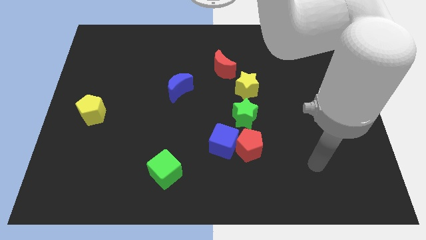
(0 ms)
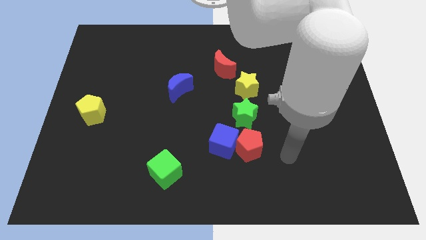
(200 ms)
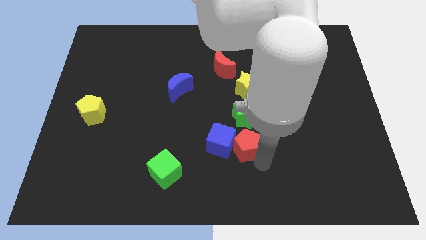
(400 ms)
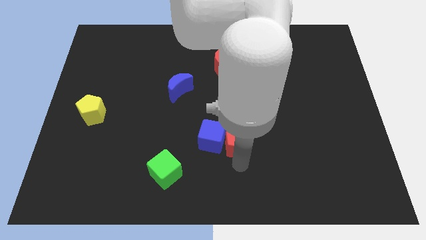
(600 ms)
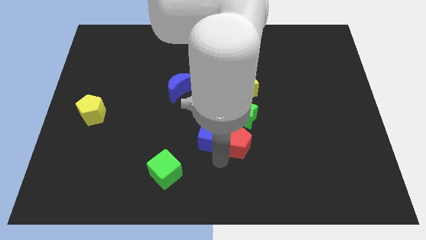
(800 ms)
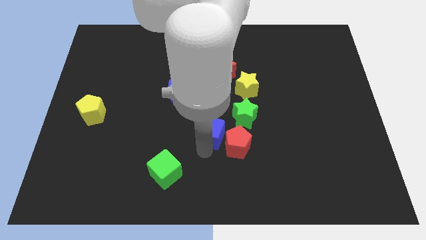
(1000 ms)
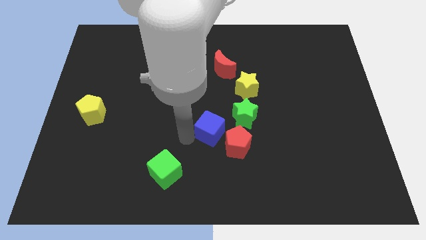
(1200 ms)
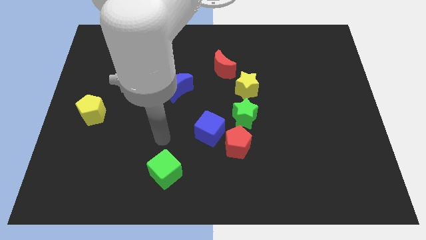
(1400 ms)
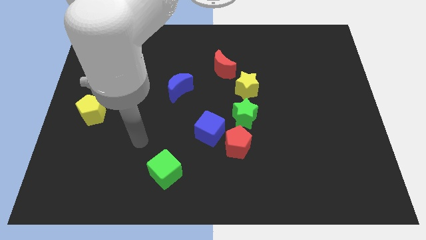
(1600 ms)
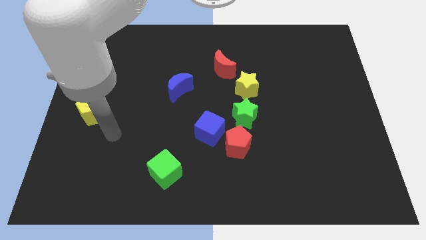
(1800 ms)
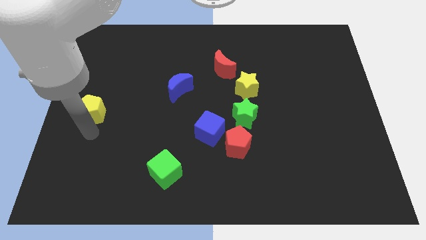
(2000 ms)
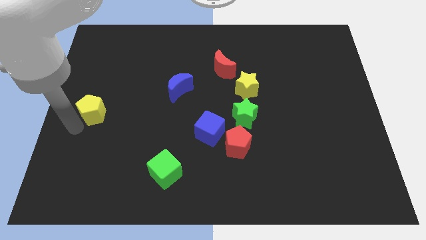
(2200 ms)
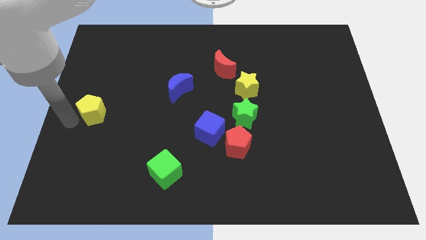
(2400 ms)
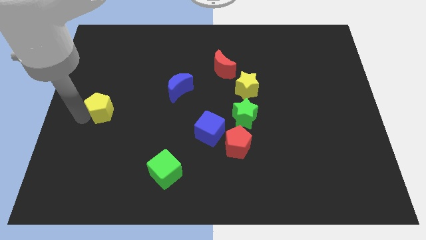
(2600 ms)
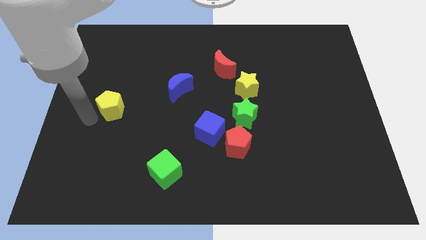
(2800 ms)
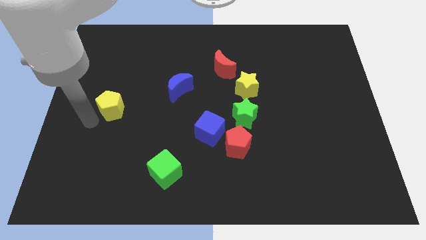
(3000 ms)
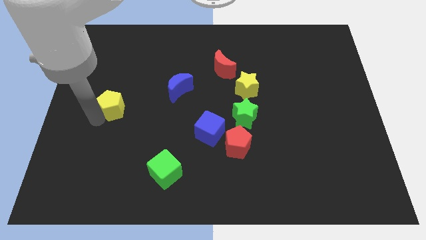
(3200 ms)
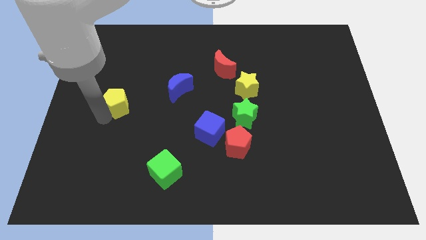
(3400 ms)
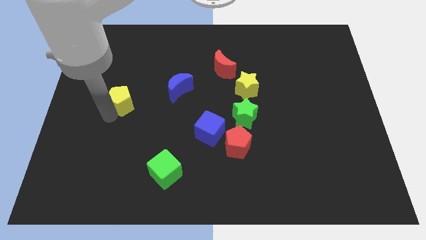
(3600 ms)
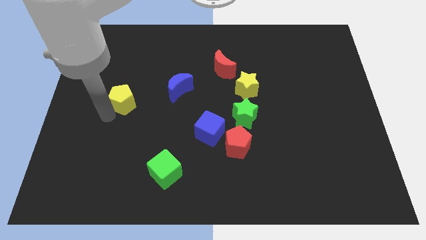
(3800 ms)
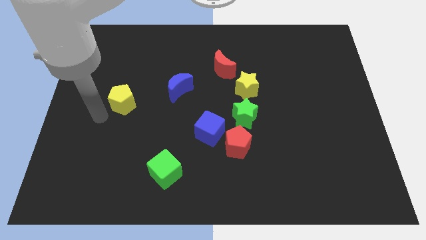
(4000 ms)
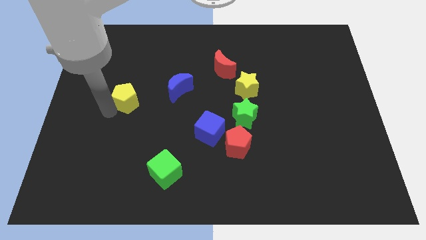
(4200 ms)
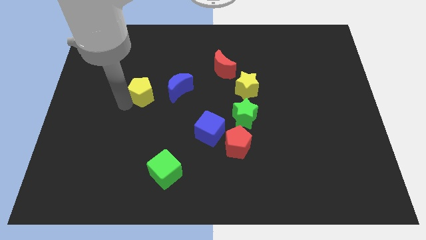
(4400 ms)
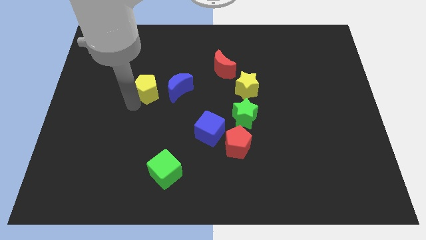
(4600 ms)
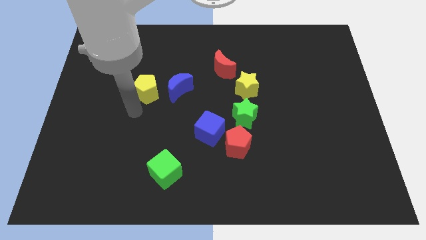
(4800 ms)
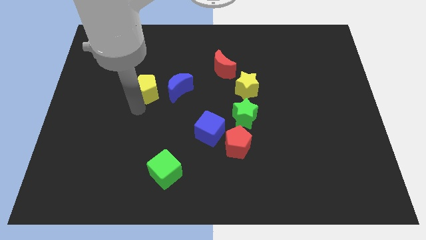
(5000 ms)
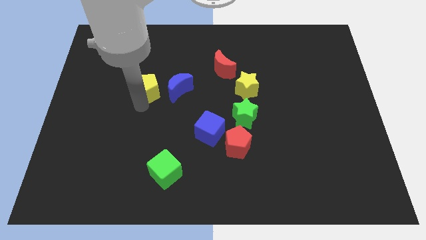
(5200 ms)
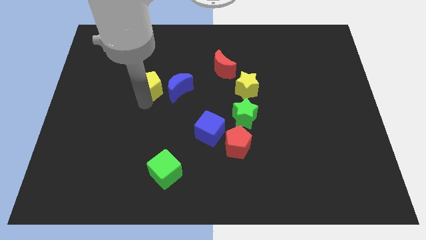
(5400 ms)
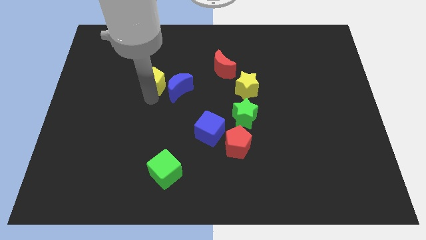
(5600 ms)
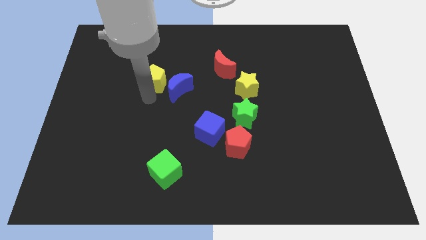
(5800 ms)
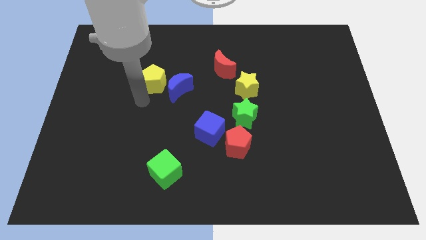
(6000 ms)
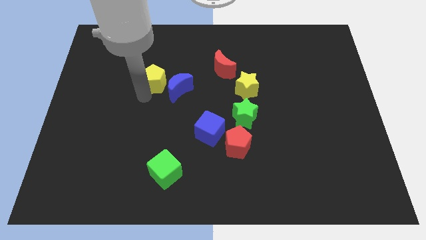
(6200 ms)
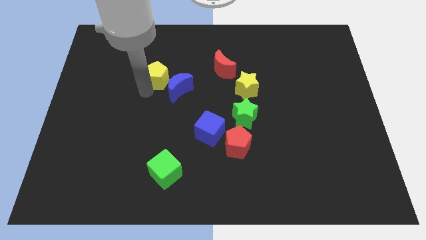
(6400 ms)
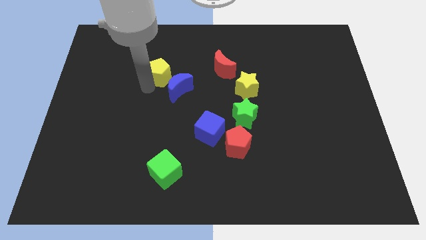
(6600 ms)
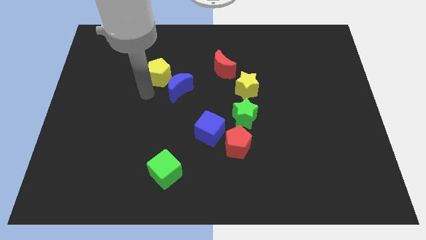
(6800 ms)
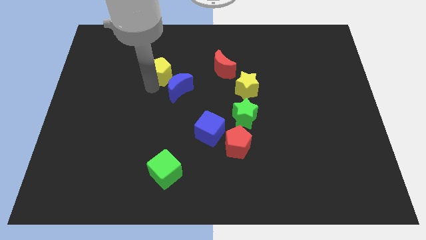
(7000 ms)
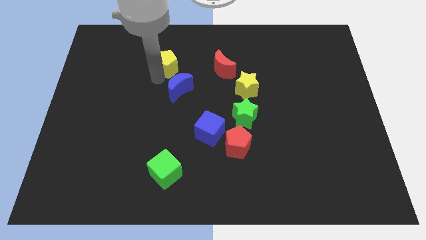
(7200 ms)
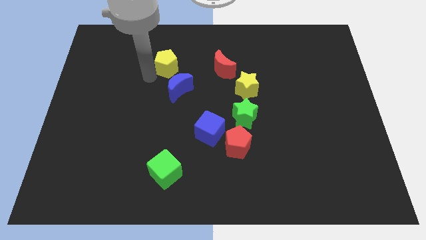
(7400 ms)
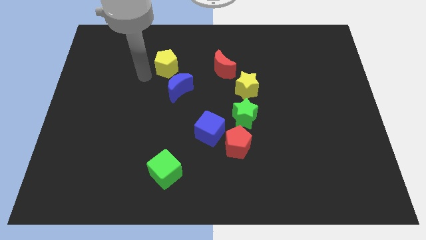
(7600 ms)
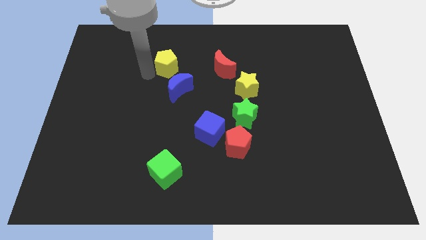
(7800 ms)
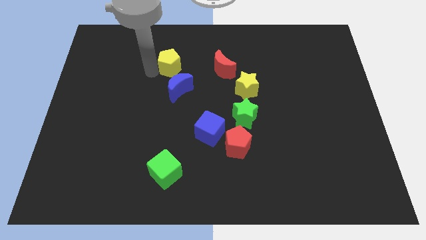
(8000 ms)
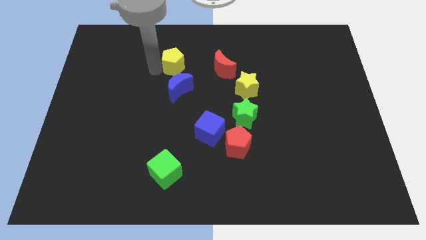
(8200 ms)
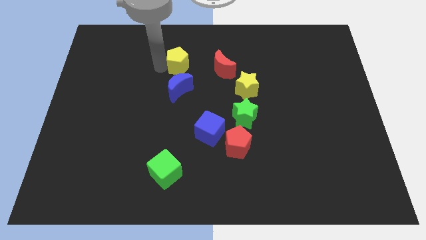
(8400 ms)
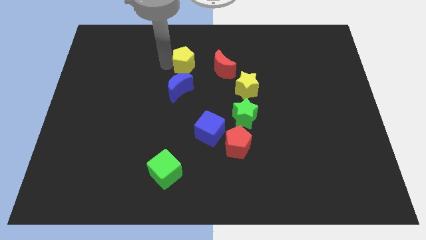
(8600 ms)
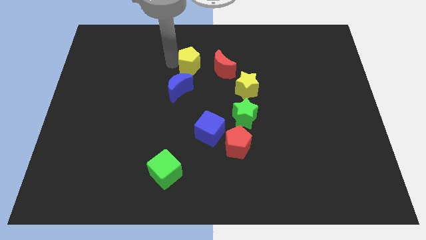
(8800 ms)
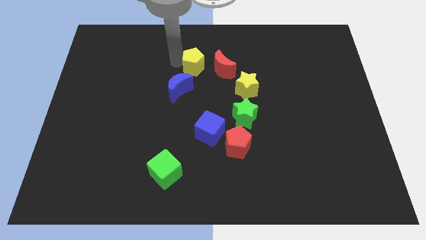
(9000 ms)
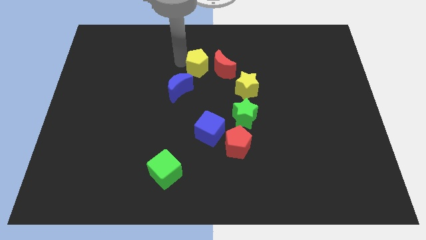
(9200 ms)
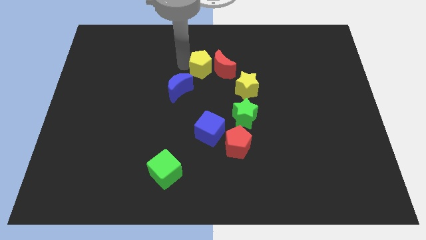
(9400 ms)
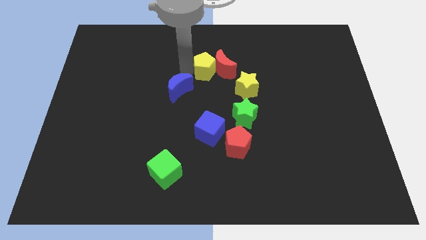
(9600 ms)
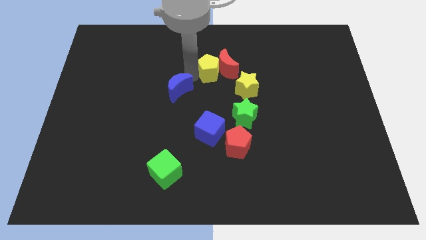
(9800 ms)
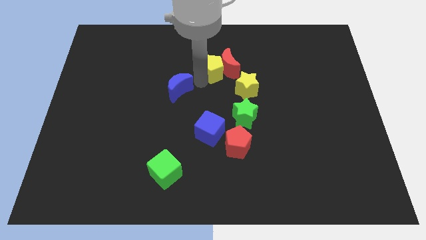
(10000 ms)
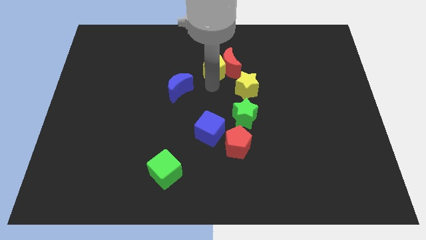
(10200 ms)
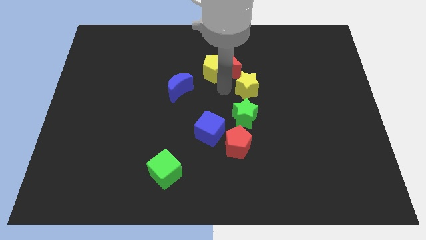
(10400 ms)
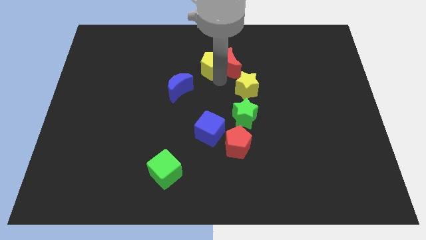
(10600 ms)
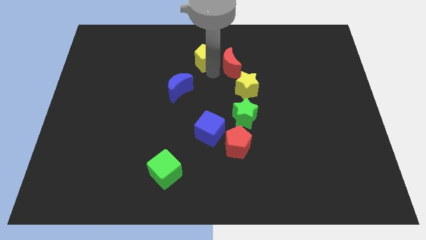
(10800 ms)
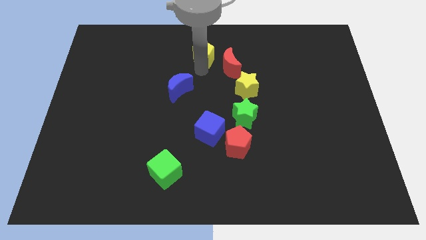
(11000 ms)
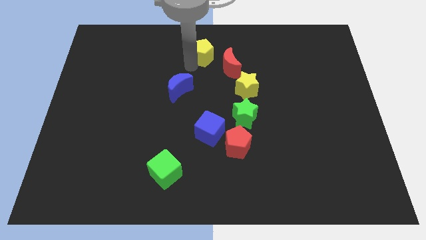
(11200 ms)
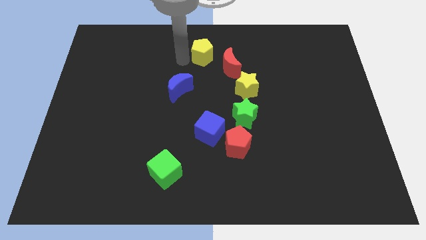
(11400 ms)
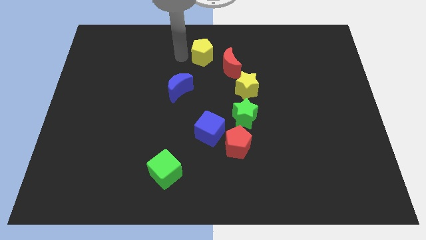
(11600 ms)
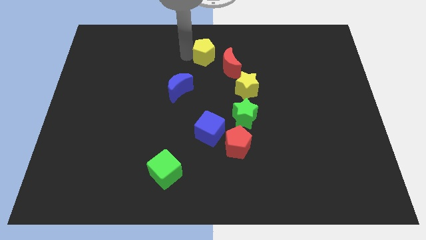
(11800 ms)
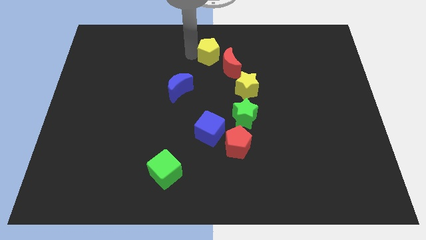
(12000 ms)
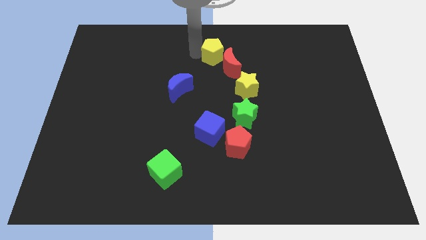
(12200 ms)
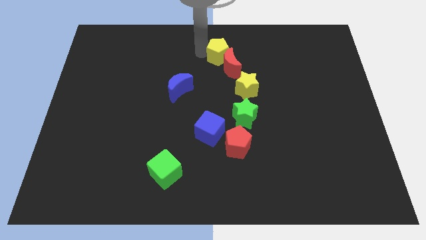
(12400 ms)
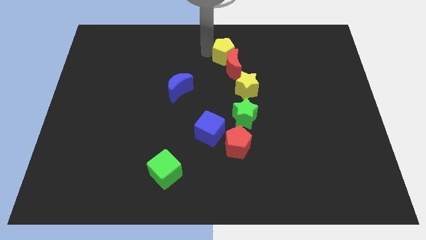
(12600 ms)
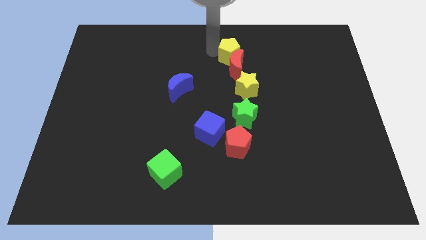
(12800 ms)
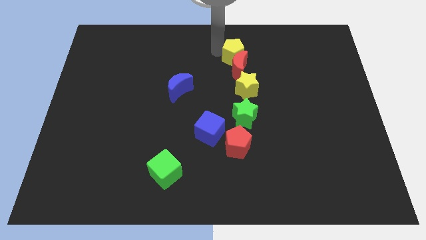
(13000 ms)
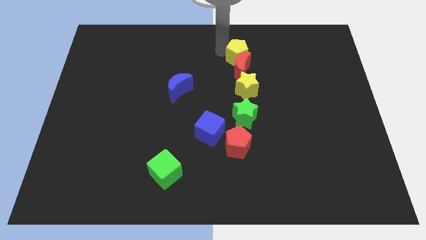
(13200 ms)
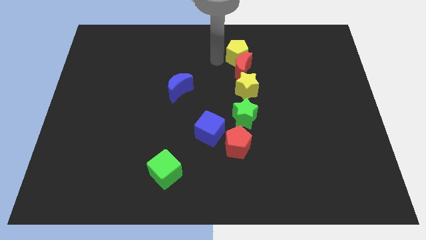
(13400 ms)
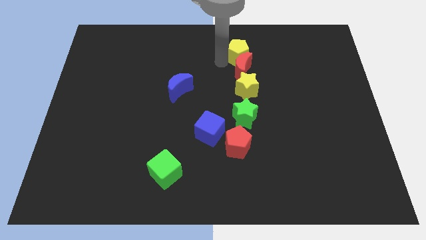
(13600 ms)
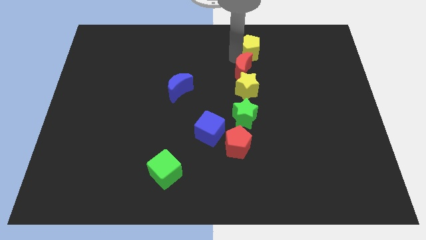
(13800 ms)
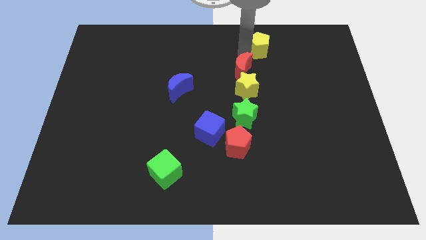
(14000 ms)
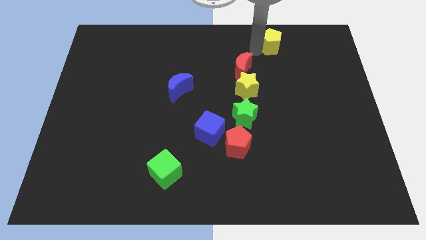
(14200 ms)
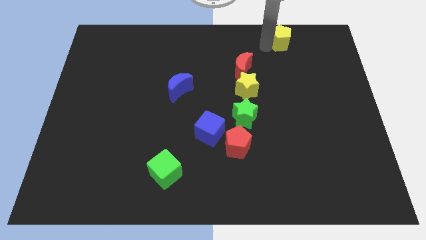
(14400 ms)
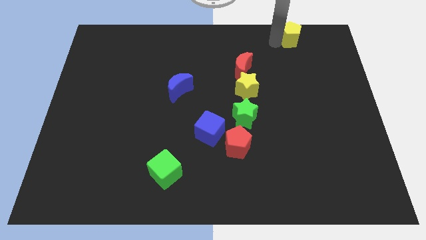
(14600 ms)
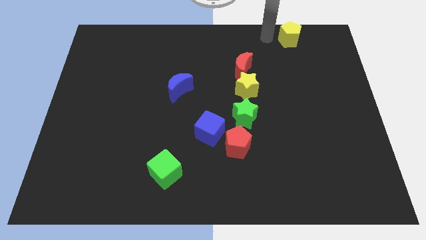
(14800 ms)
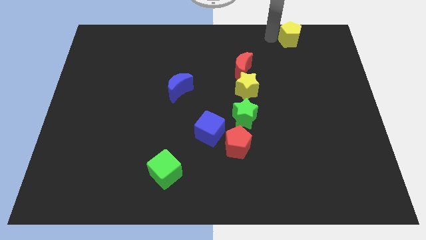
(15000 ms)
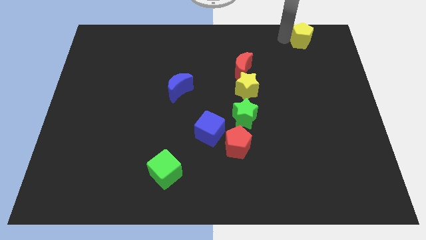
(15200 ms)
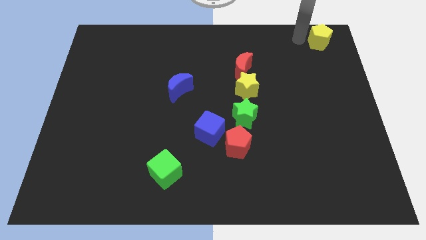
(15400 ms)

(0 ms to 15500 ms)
slide the yellow pentagon to the upper right corner
